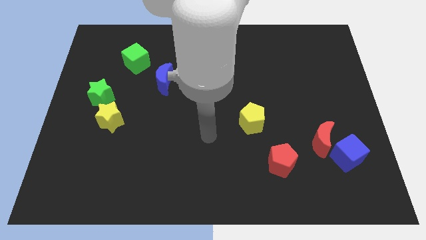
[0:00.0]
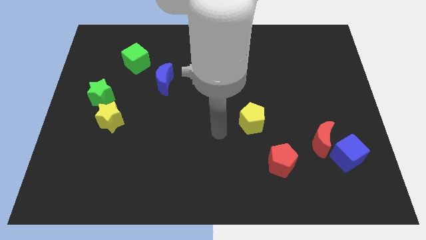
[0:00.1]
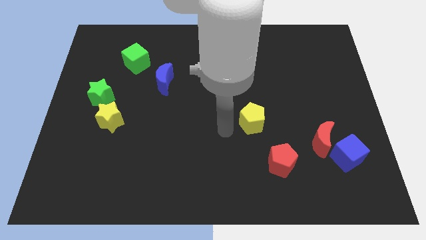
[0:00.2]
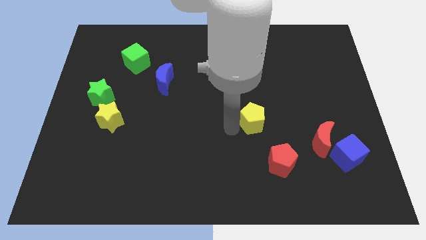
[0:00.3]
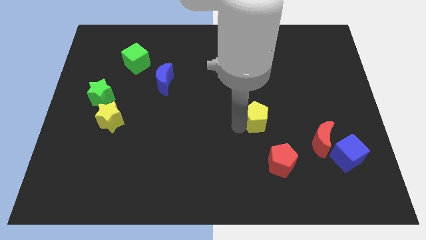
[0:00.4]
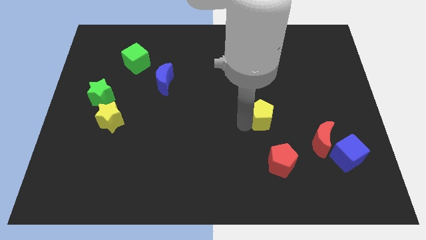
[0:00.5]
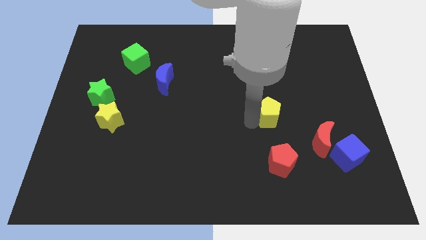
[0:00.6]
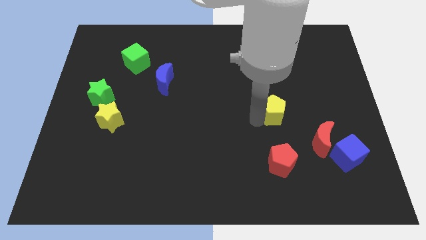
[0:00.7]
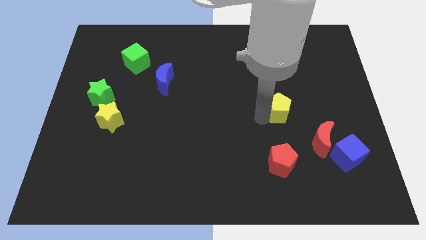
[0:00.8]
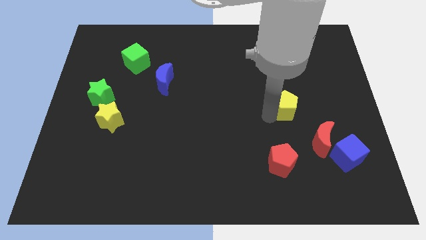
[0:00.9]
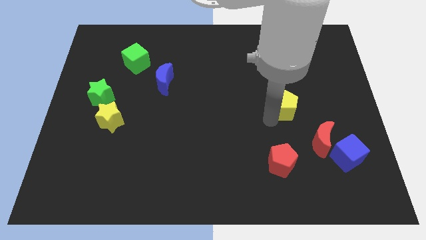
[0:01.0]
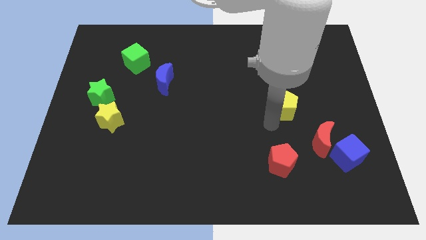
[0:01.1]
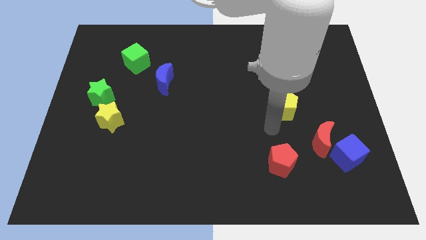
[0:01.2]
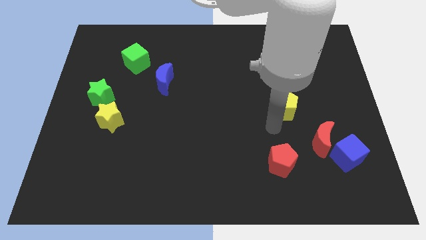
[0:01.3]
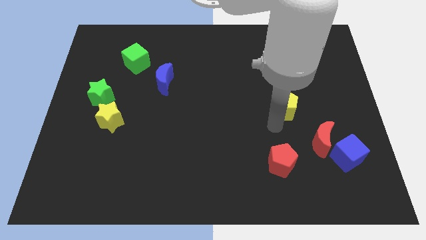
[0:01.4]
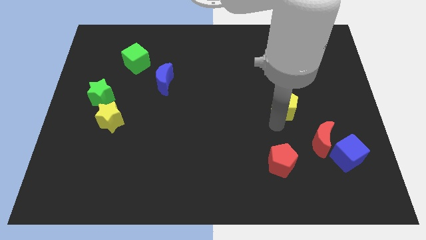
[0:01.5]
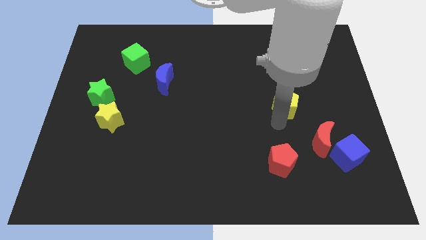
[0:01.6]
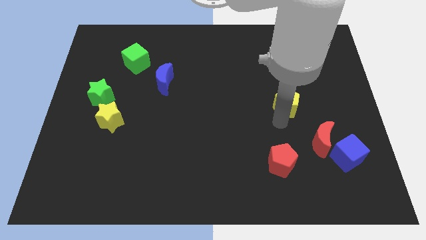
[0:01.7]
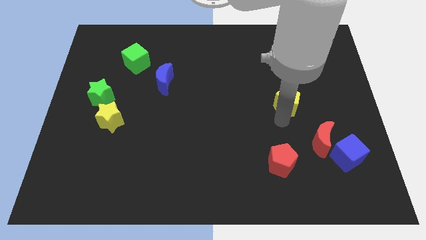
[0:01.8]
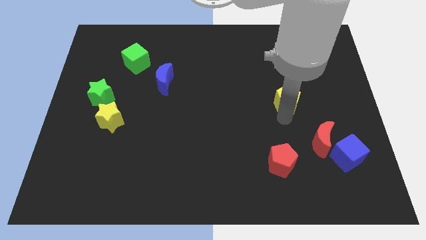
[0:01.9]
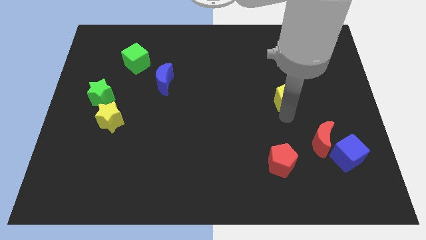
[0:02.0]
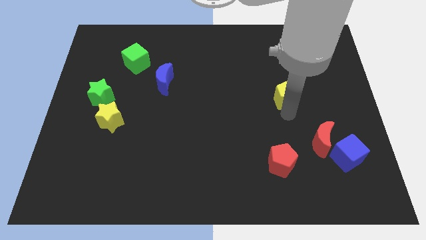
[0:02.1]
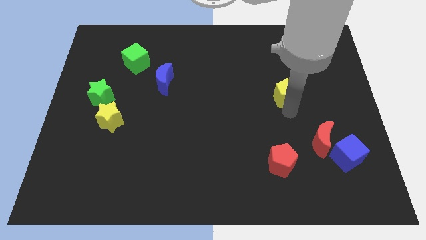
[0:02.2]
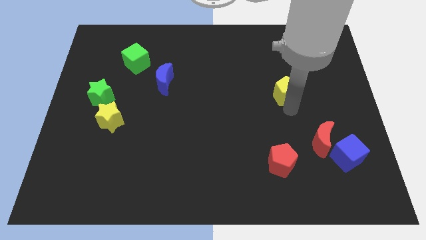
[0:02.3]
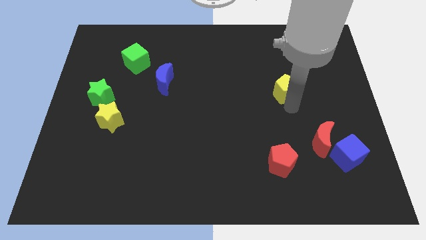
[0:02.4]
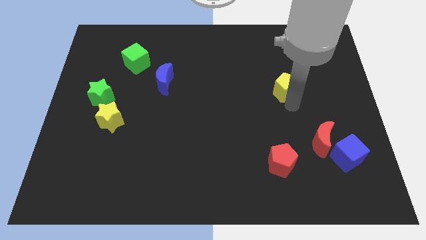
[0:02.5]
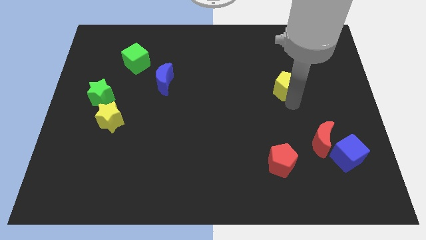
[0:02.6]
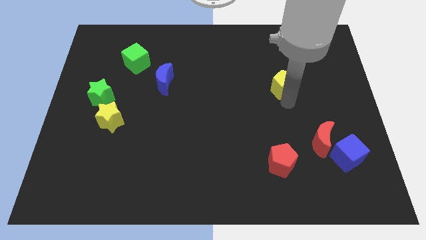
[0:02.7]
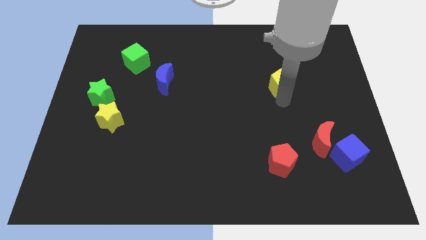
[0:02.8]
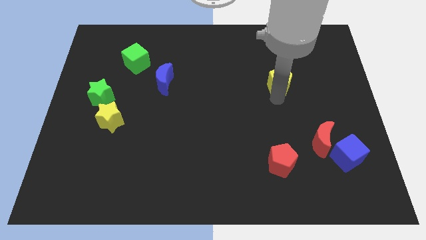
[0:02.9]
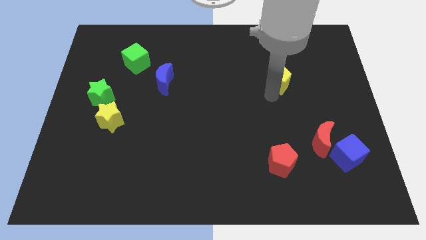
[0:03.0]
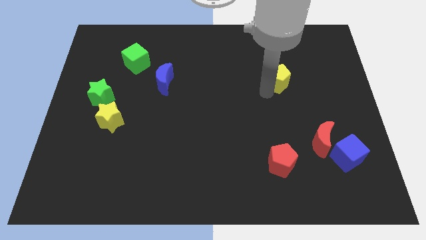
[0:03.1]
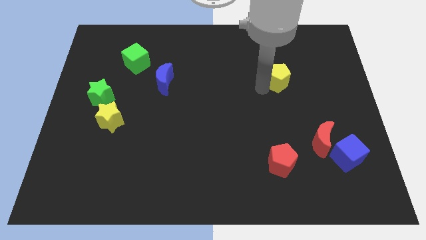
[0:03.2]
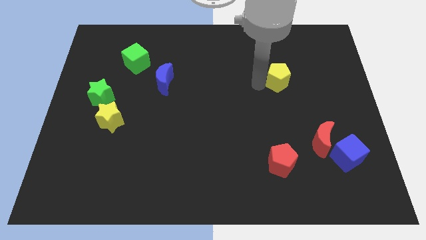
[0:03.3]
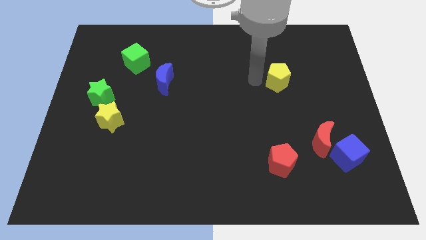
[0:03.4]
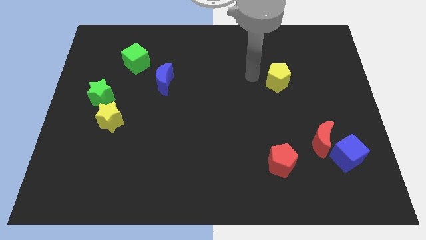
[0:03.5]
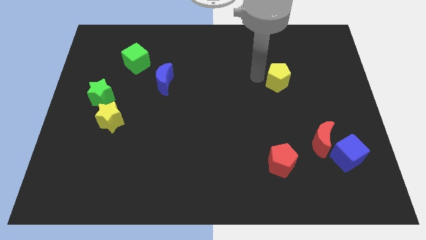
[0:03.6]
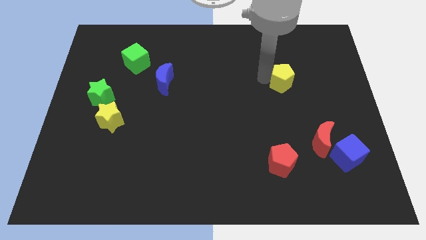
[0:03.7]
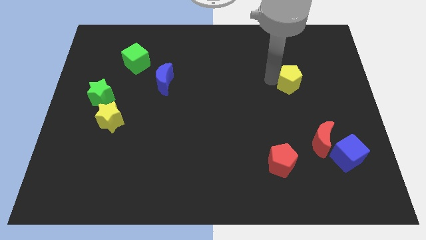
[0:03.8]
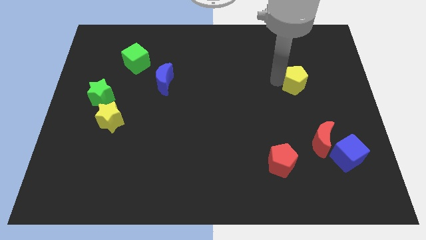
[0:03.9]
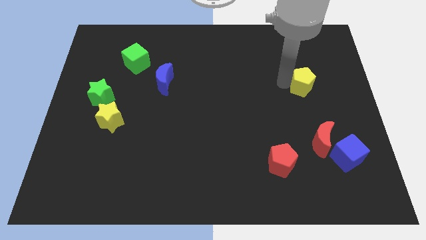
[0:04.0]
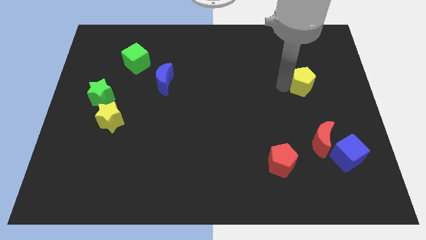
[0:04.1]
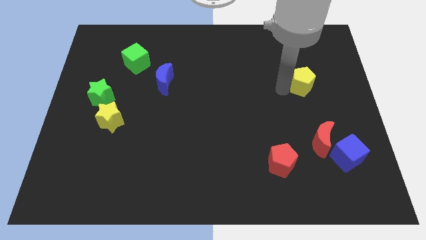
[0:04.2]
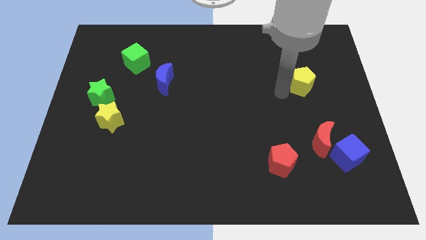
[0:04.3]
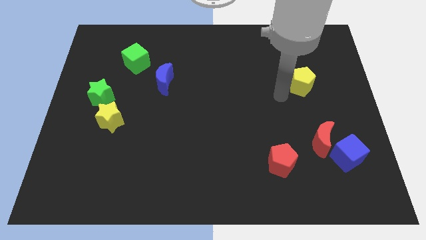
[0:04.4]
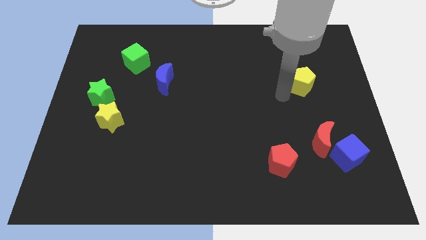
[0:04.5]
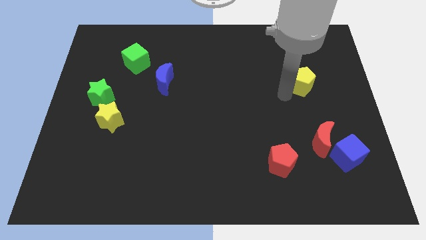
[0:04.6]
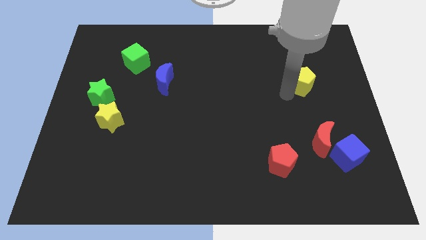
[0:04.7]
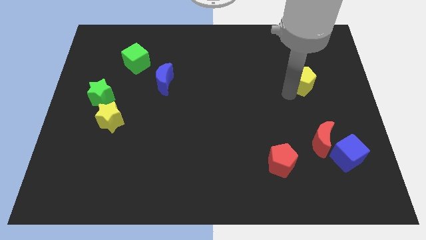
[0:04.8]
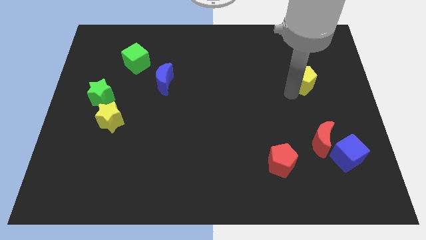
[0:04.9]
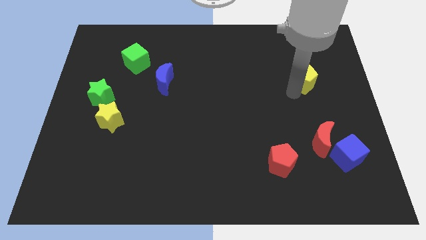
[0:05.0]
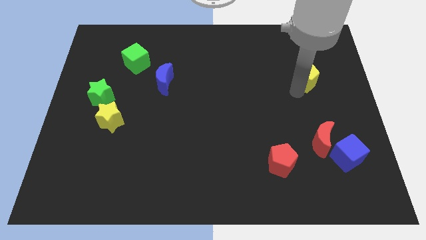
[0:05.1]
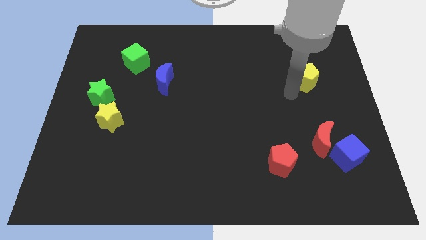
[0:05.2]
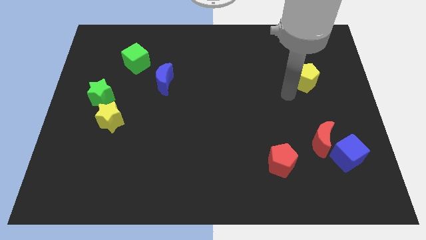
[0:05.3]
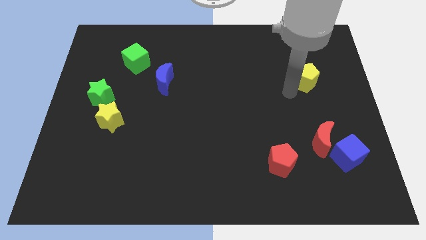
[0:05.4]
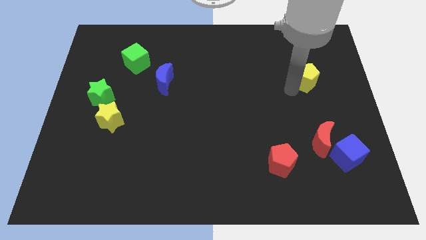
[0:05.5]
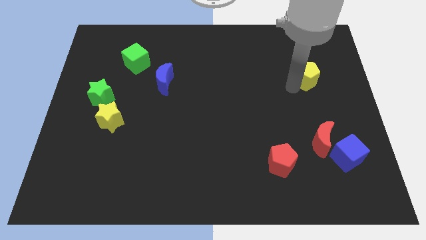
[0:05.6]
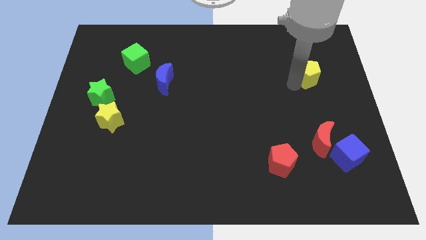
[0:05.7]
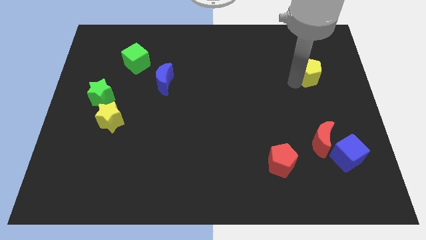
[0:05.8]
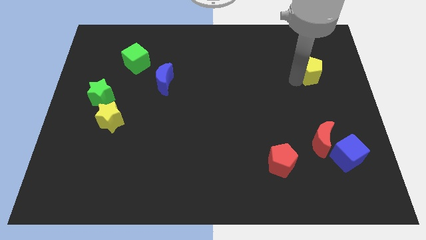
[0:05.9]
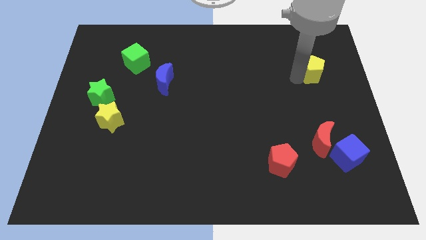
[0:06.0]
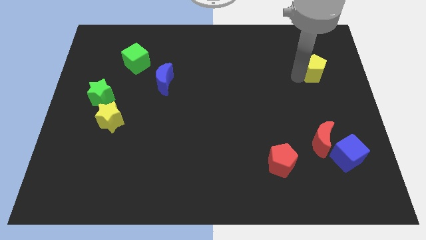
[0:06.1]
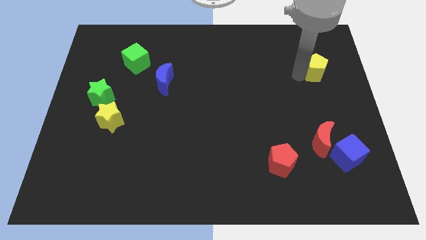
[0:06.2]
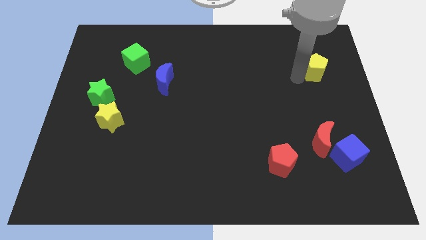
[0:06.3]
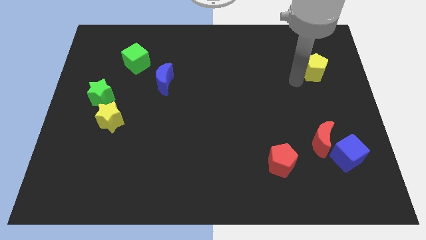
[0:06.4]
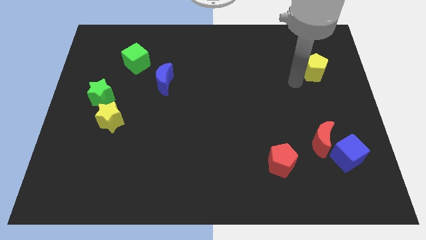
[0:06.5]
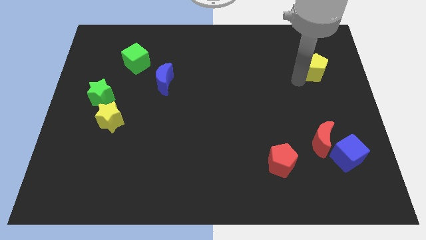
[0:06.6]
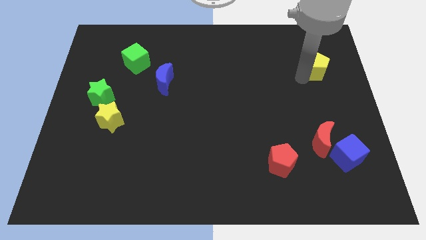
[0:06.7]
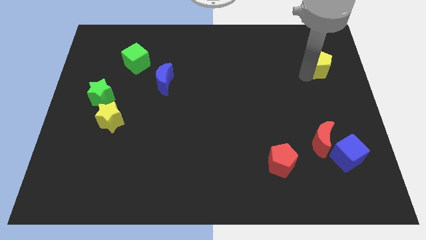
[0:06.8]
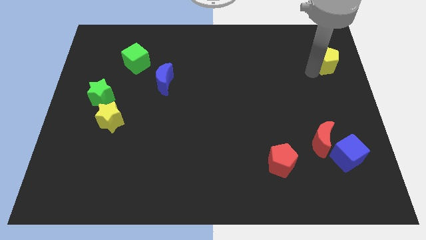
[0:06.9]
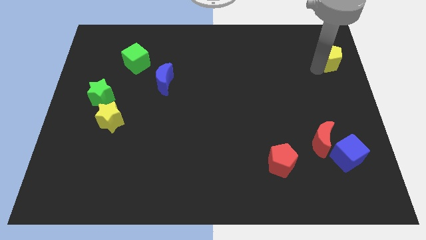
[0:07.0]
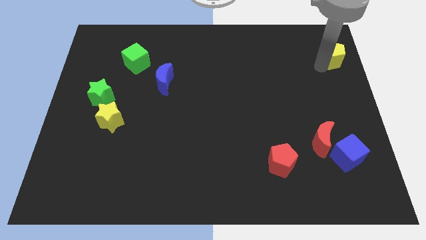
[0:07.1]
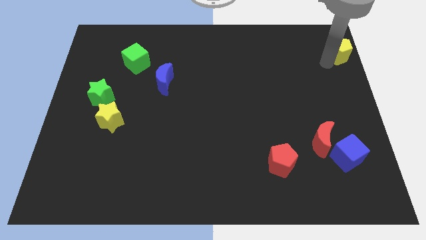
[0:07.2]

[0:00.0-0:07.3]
push the yellow pentagon to the top right corner
